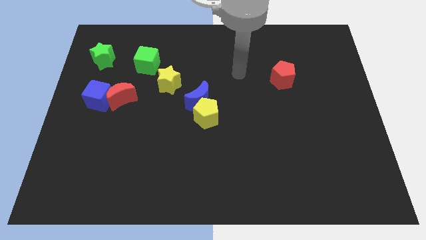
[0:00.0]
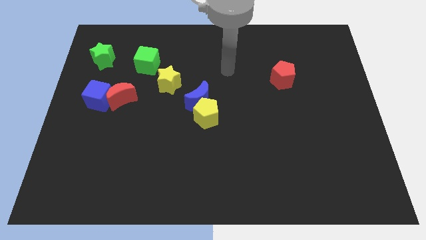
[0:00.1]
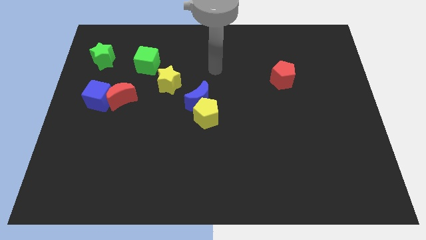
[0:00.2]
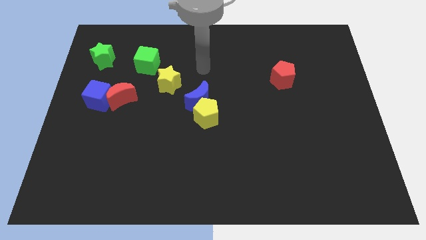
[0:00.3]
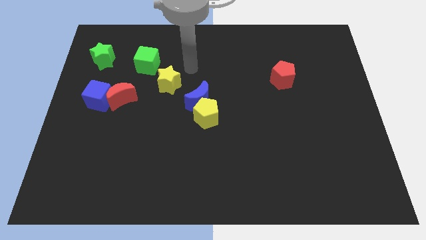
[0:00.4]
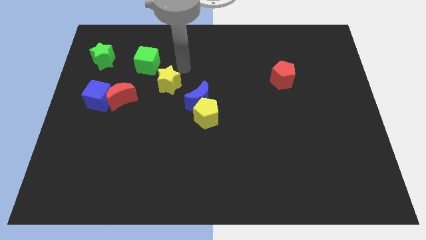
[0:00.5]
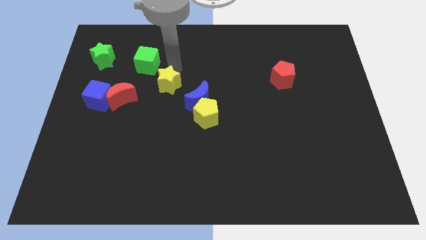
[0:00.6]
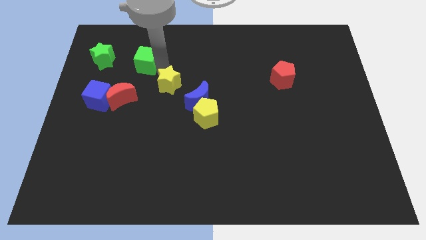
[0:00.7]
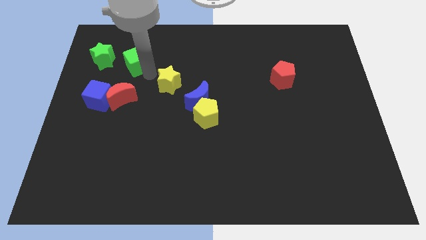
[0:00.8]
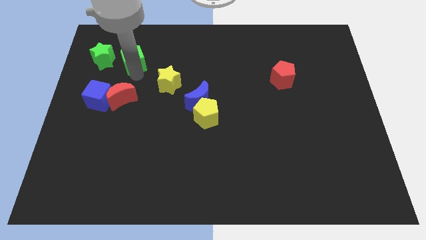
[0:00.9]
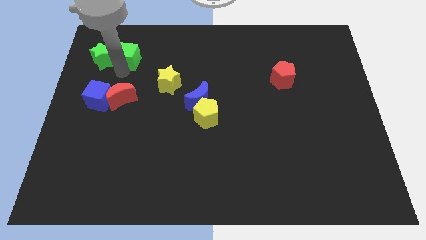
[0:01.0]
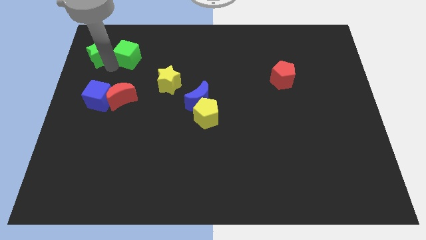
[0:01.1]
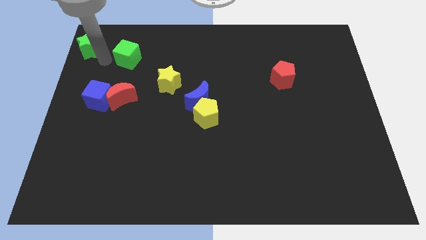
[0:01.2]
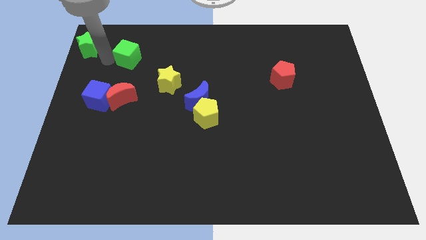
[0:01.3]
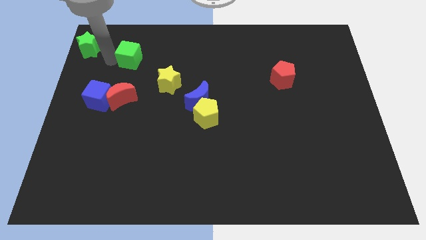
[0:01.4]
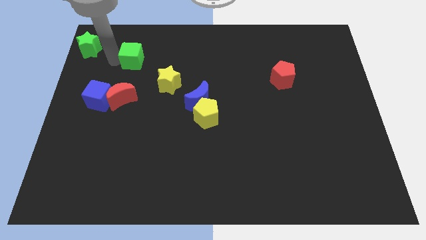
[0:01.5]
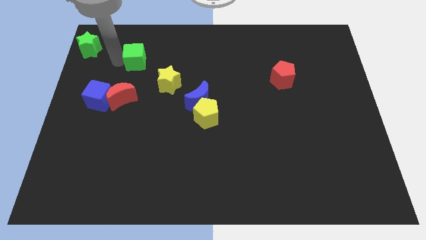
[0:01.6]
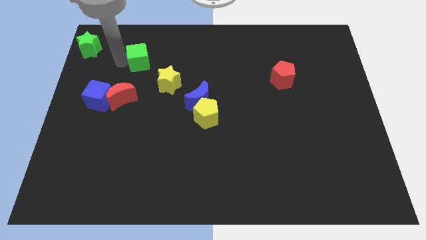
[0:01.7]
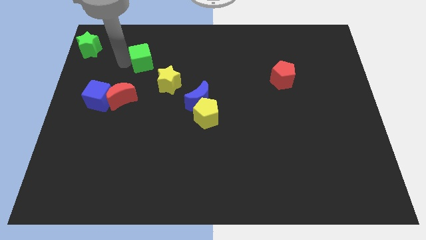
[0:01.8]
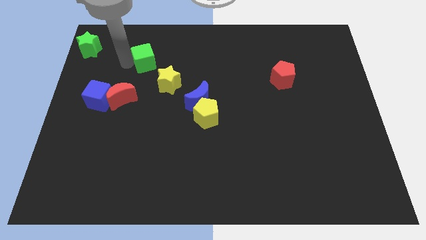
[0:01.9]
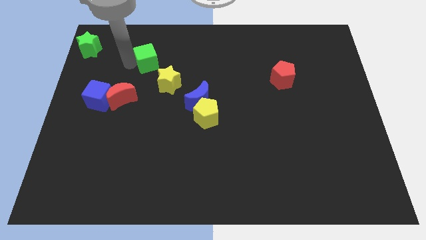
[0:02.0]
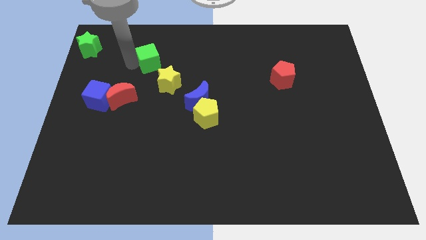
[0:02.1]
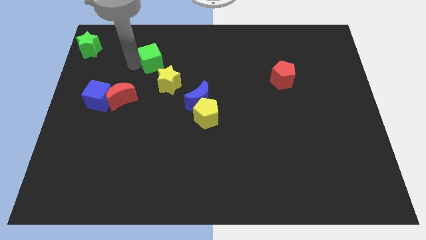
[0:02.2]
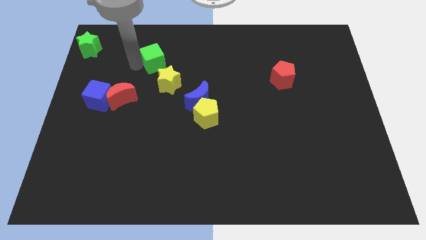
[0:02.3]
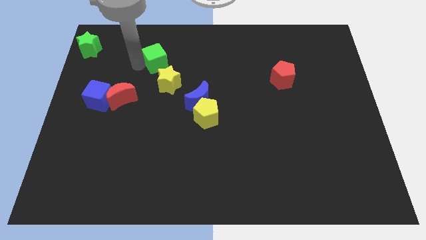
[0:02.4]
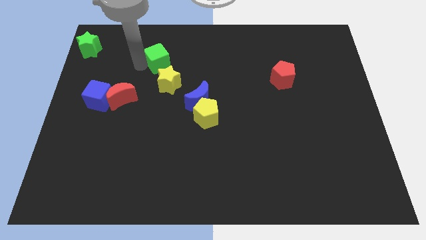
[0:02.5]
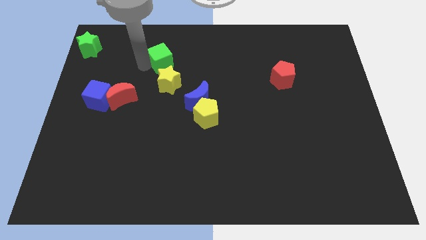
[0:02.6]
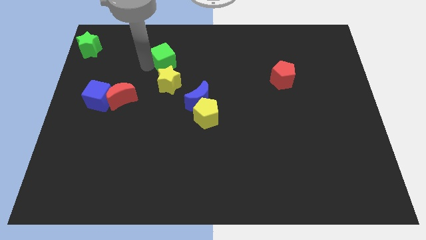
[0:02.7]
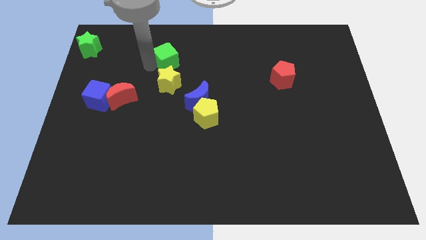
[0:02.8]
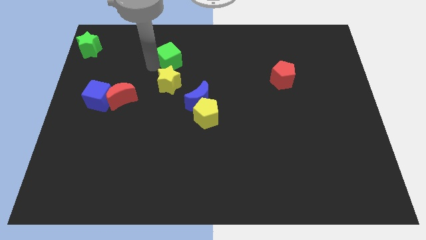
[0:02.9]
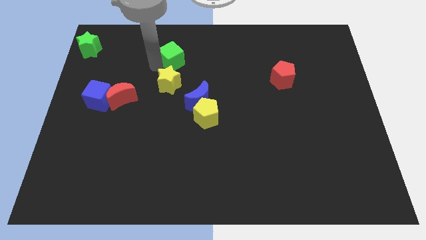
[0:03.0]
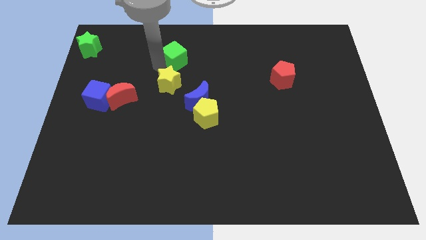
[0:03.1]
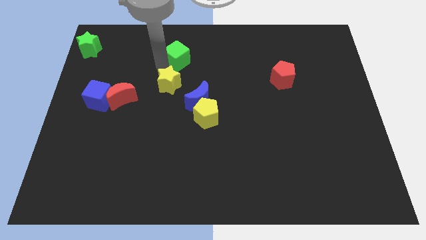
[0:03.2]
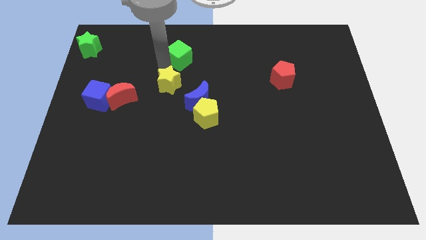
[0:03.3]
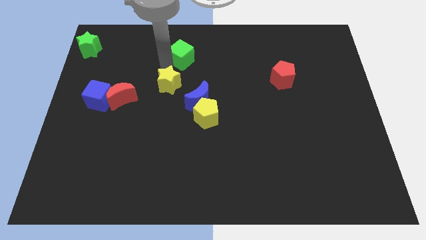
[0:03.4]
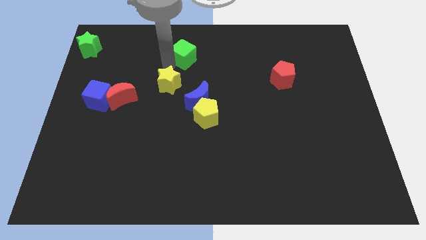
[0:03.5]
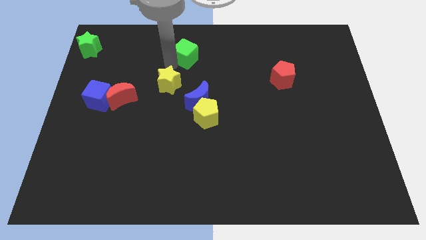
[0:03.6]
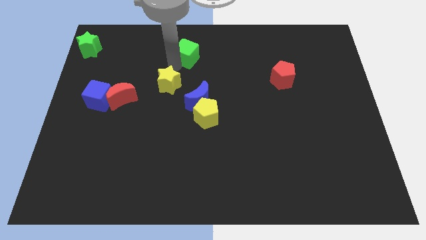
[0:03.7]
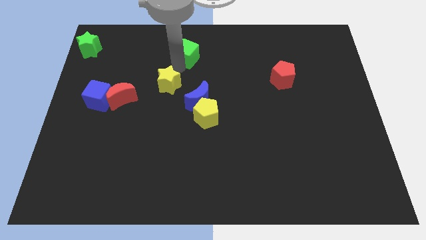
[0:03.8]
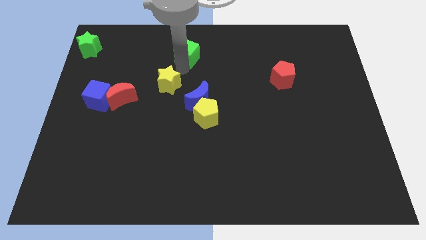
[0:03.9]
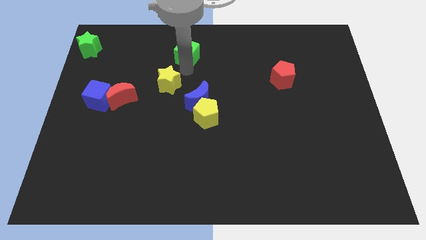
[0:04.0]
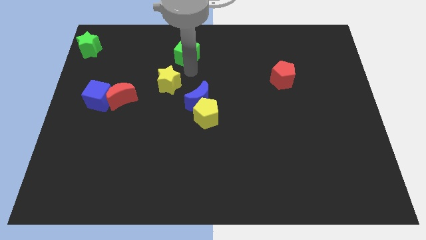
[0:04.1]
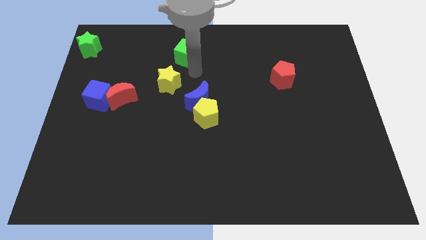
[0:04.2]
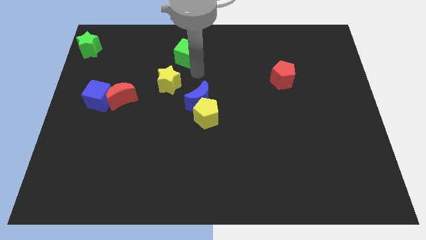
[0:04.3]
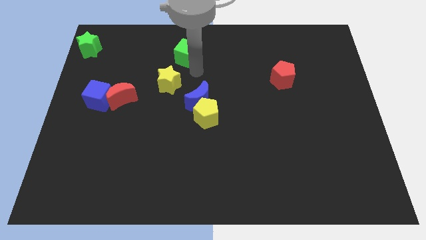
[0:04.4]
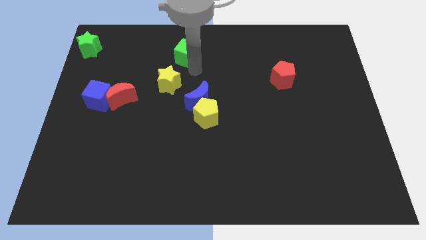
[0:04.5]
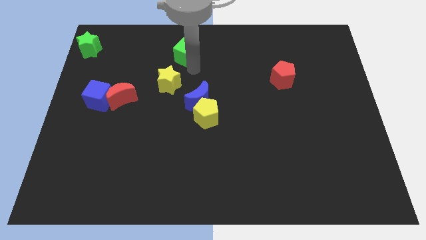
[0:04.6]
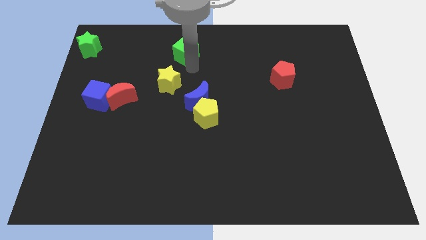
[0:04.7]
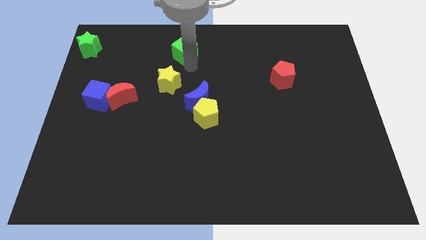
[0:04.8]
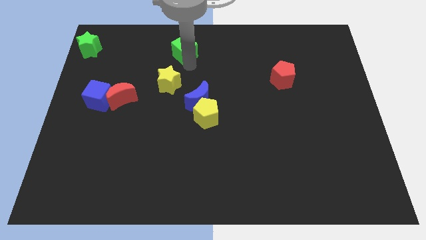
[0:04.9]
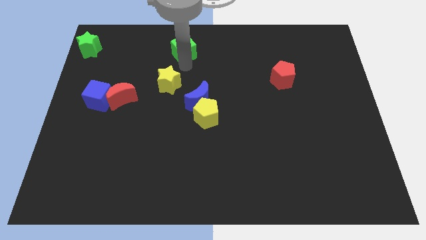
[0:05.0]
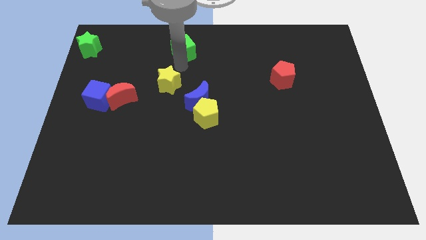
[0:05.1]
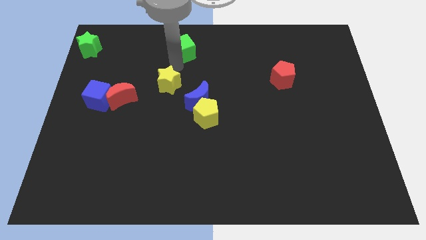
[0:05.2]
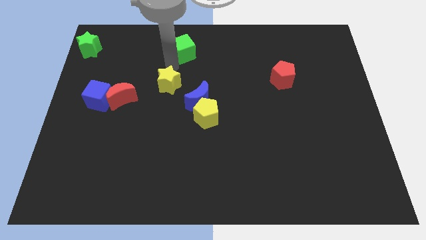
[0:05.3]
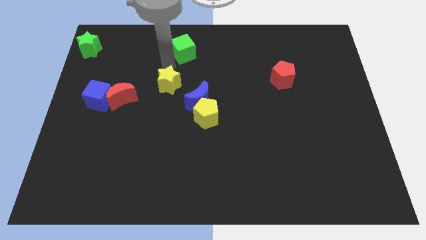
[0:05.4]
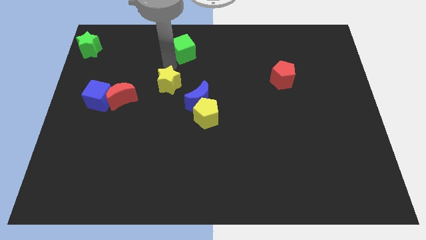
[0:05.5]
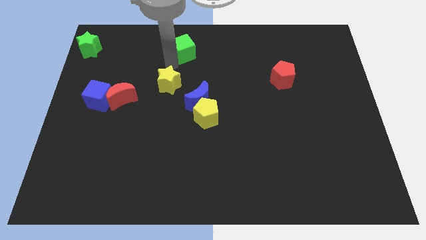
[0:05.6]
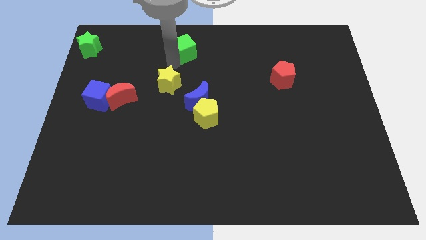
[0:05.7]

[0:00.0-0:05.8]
put the green cube to the top

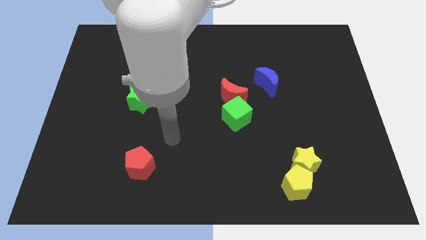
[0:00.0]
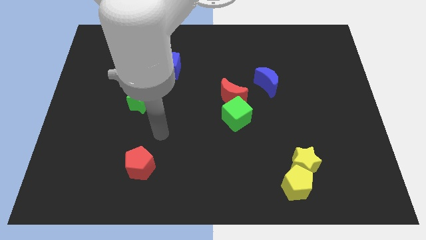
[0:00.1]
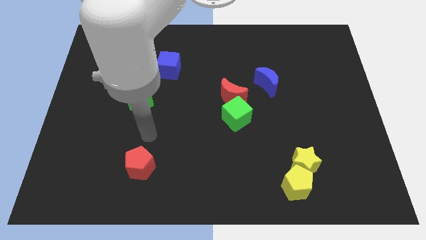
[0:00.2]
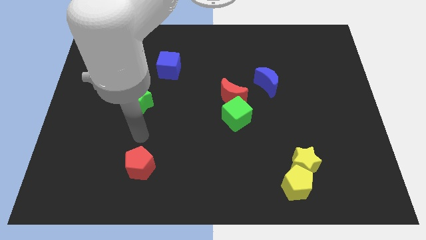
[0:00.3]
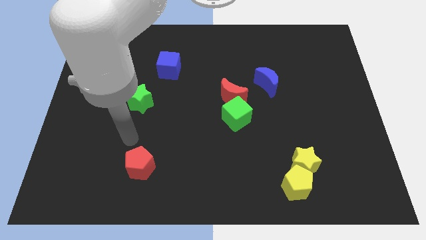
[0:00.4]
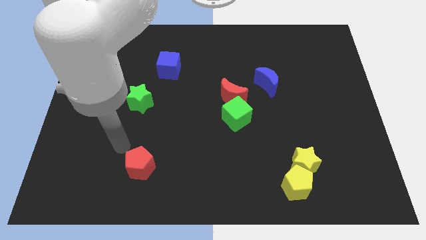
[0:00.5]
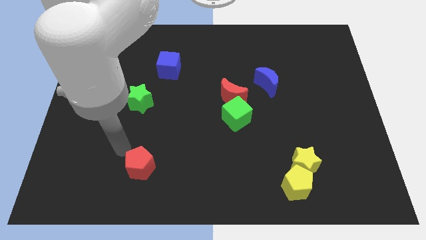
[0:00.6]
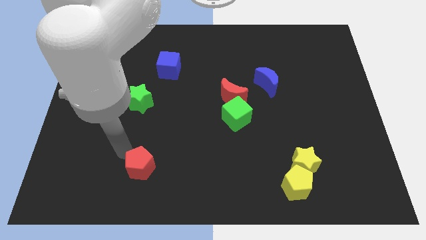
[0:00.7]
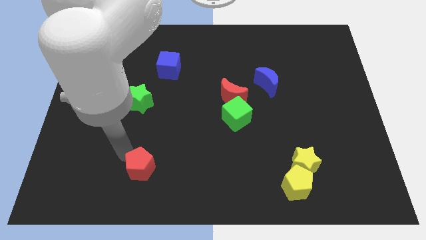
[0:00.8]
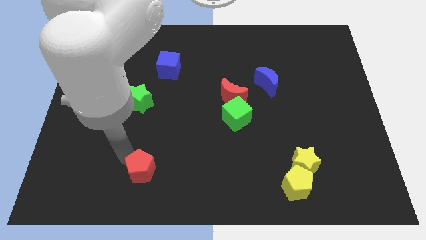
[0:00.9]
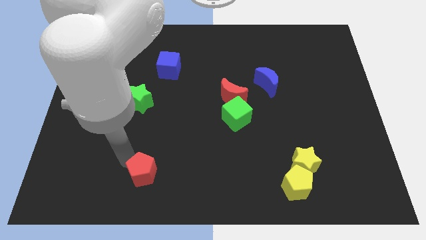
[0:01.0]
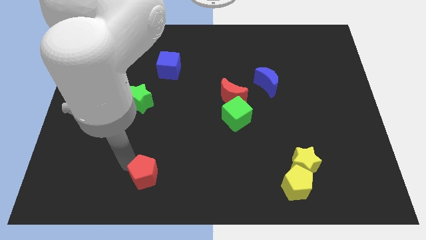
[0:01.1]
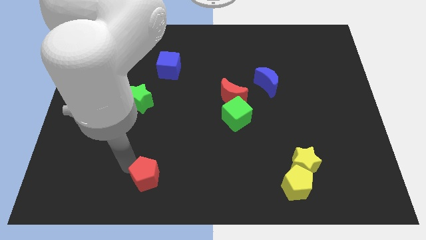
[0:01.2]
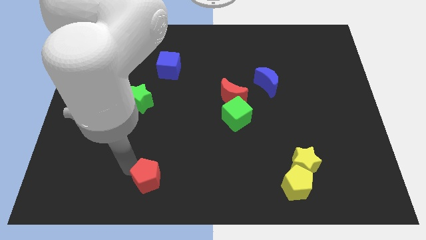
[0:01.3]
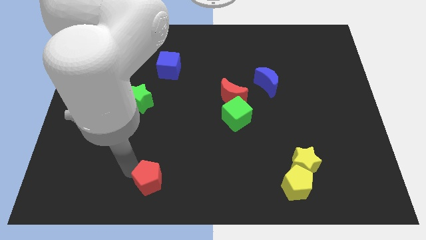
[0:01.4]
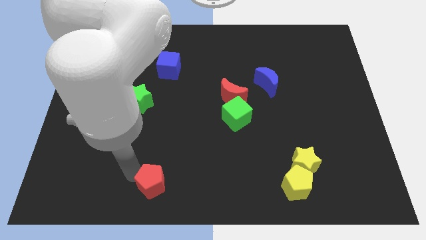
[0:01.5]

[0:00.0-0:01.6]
move the red pentagon to the bottom
